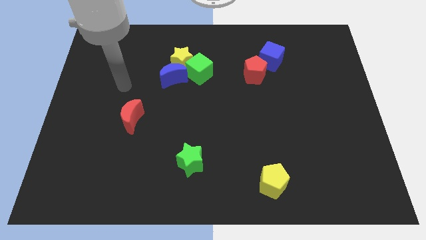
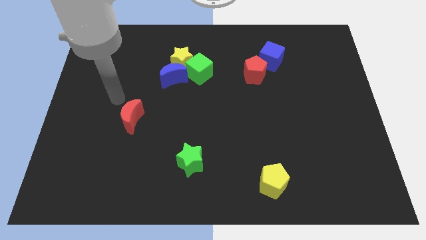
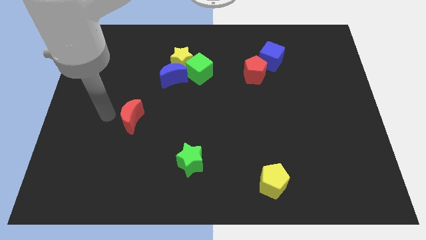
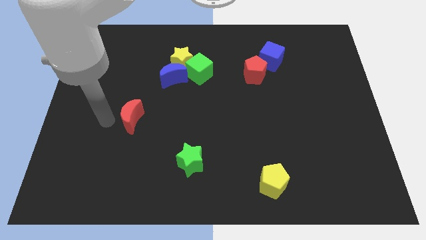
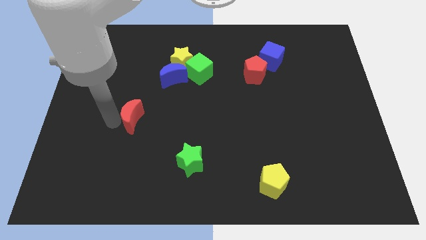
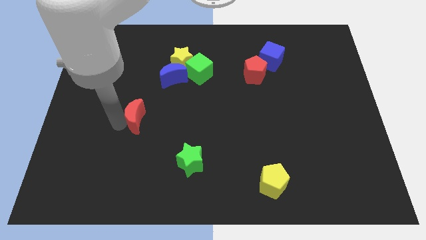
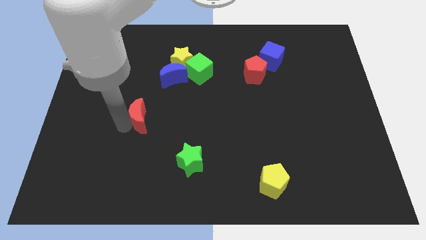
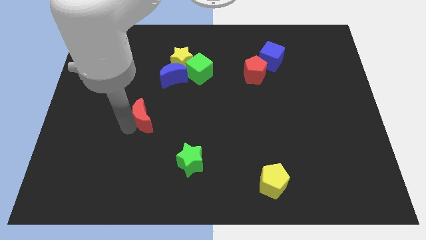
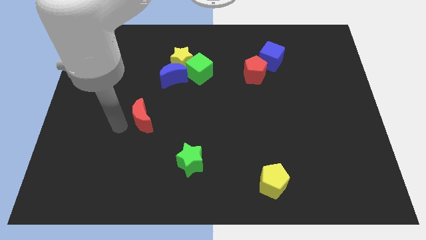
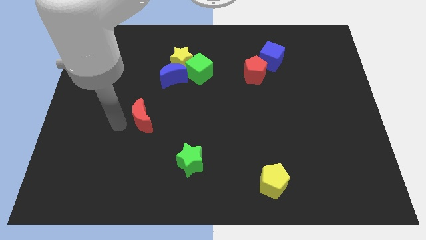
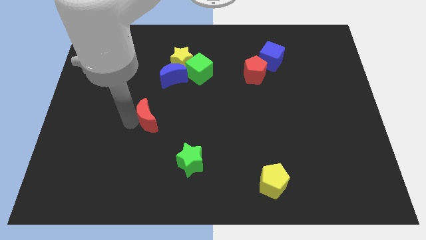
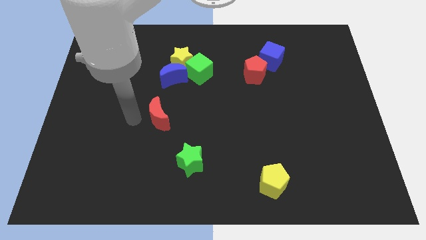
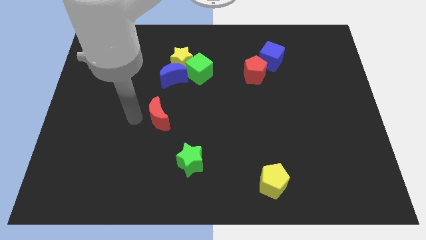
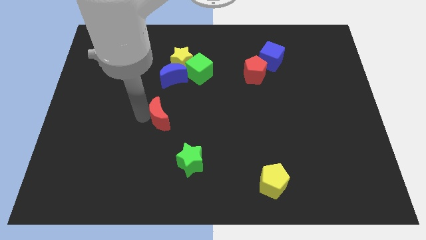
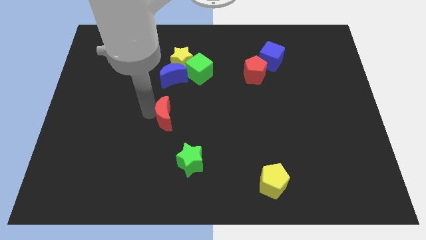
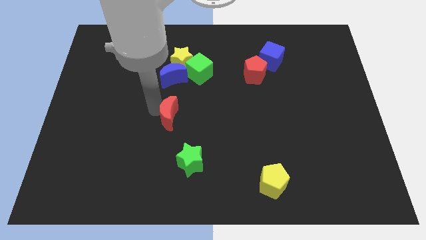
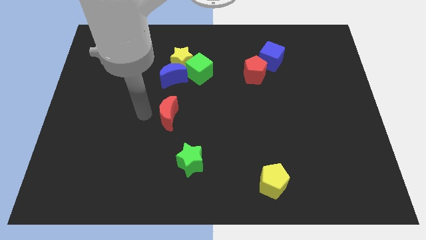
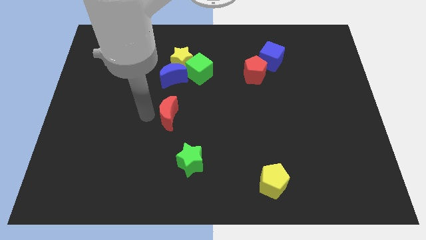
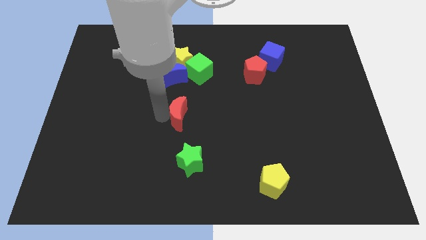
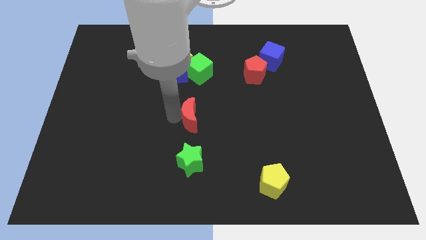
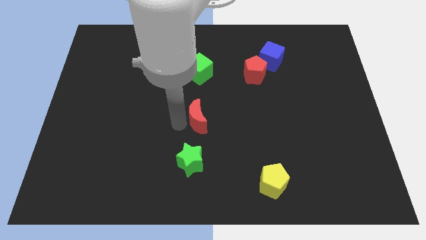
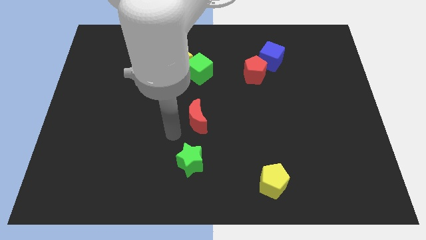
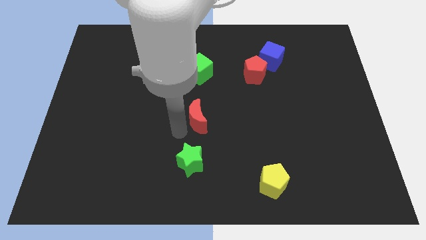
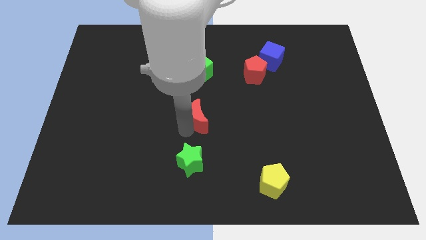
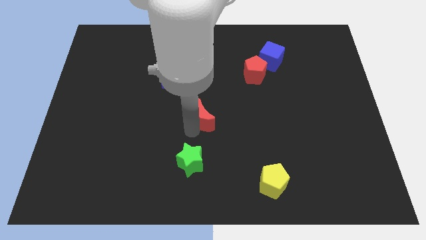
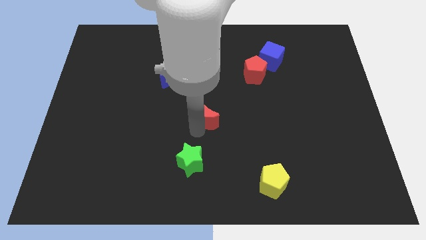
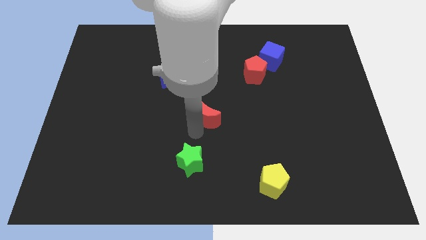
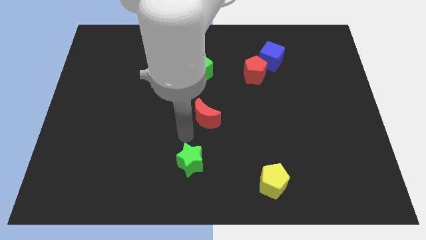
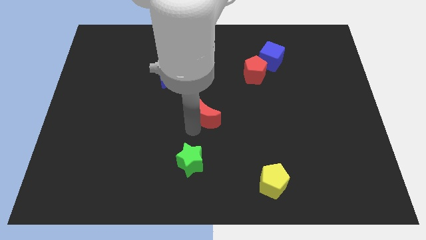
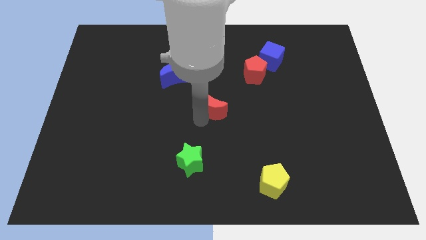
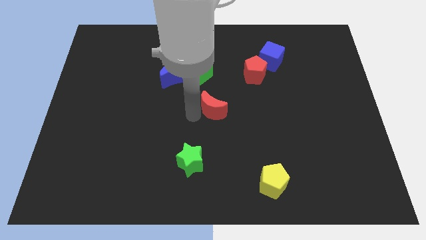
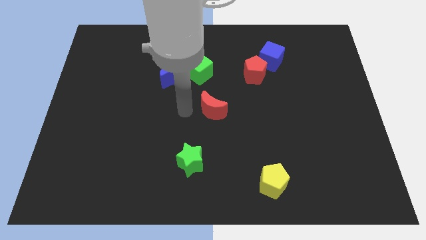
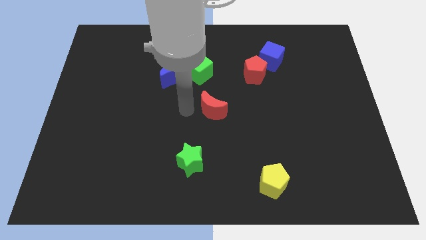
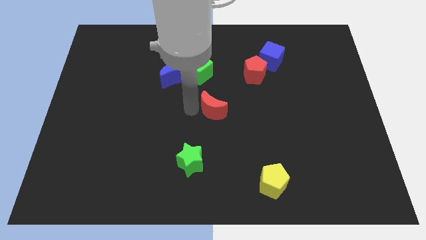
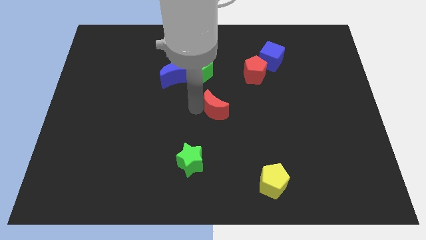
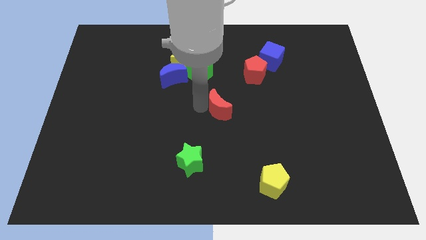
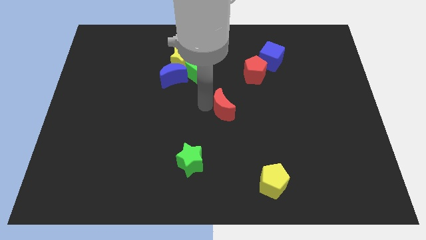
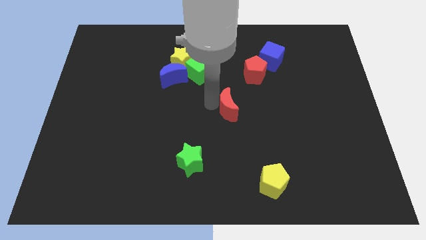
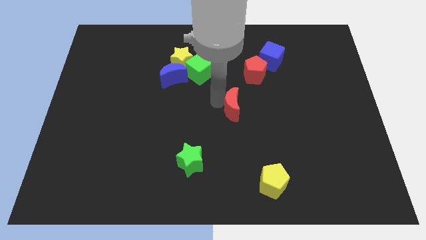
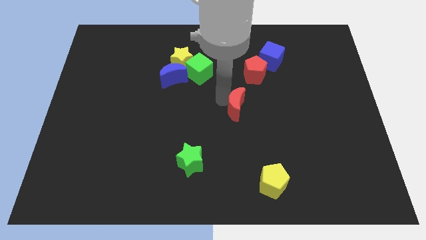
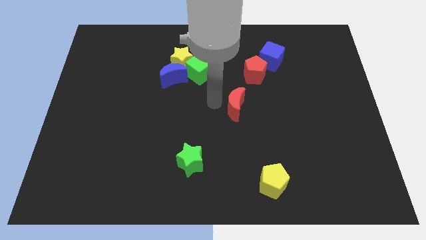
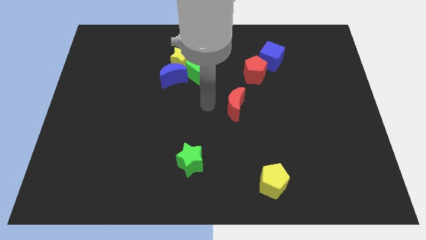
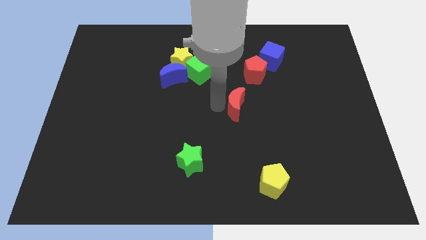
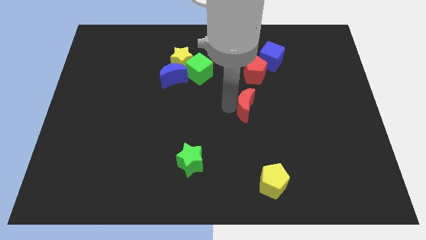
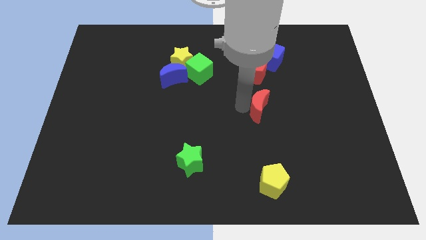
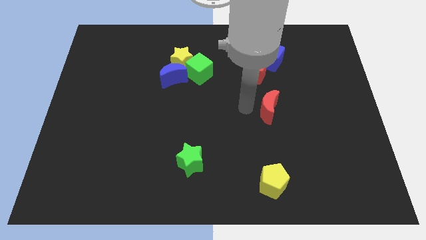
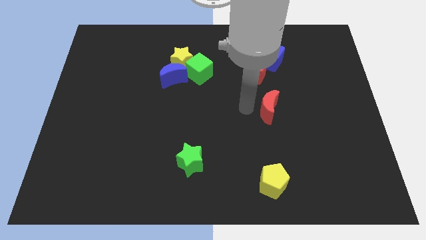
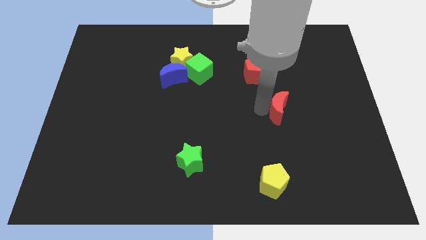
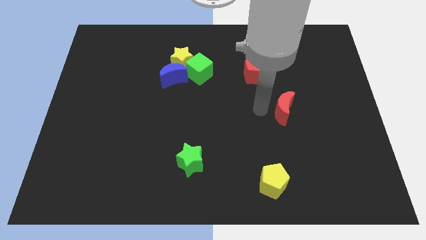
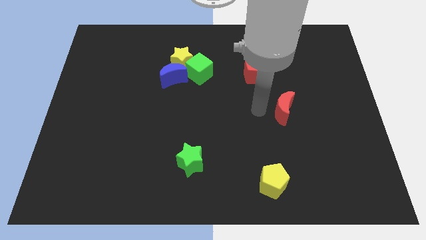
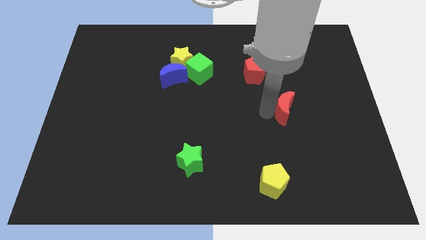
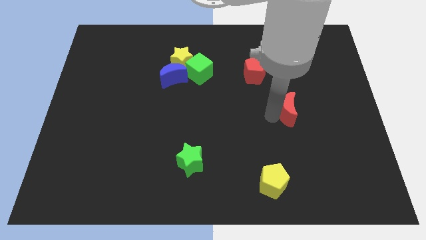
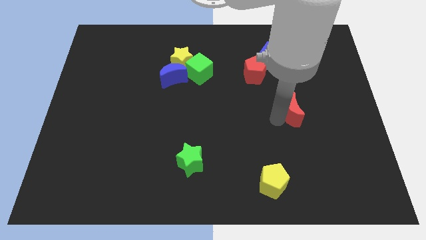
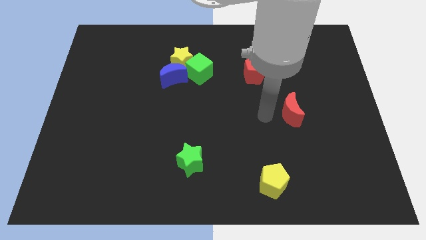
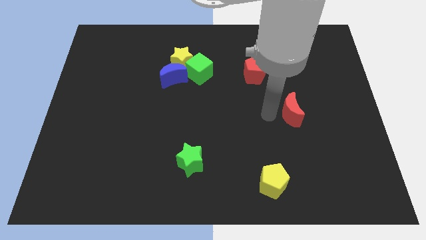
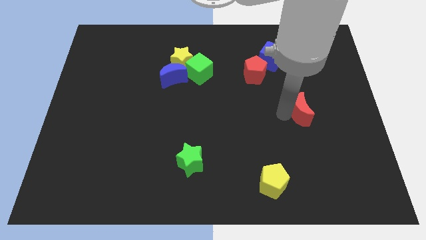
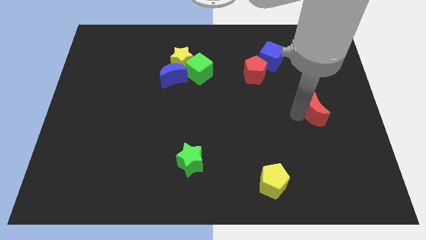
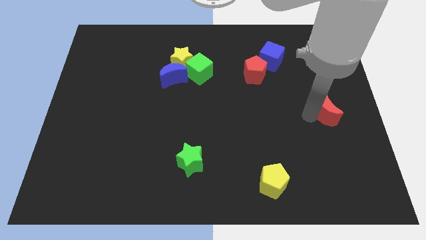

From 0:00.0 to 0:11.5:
put the red moon to the right side
